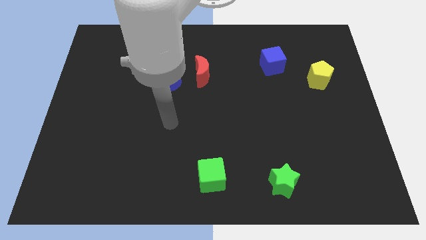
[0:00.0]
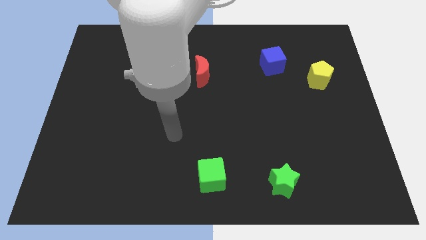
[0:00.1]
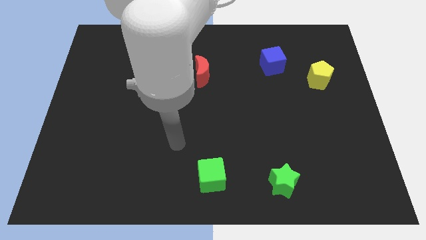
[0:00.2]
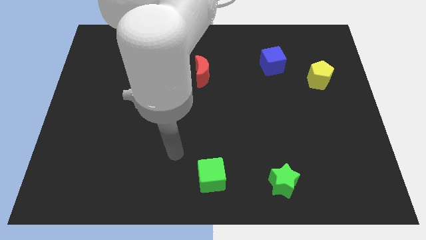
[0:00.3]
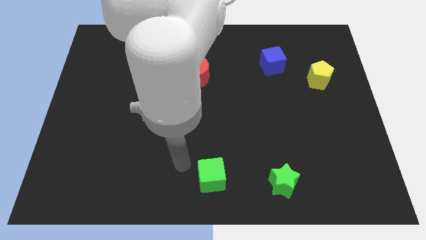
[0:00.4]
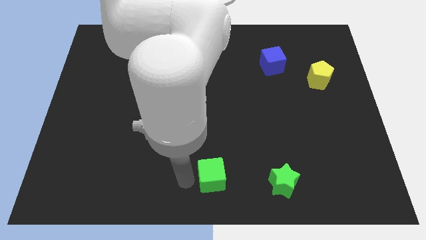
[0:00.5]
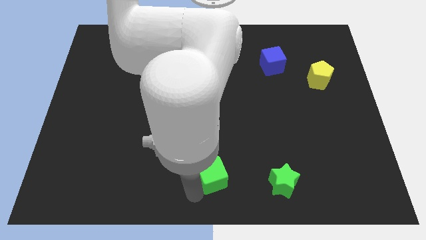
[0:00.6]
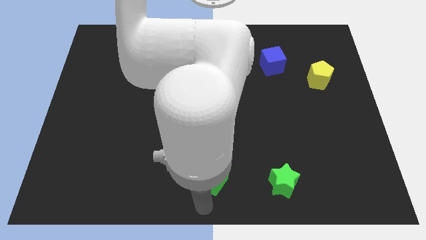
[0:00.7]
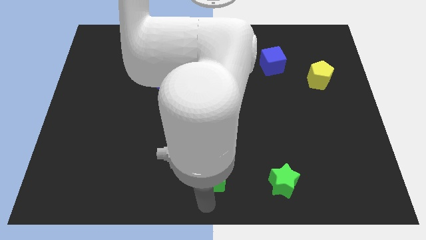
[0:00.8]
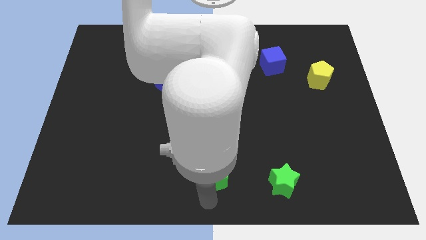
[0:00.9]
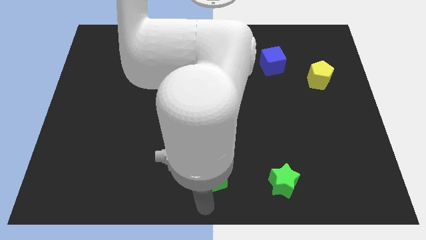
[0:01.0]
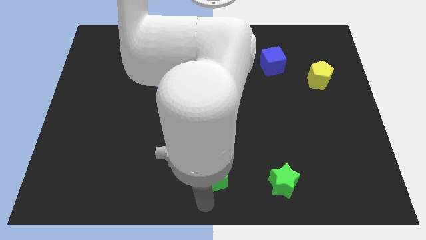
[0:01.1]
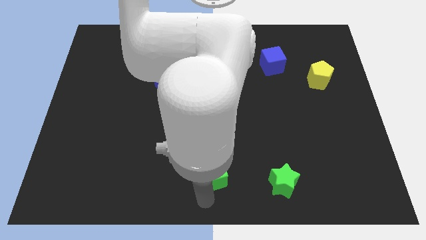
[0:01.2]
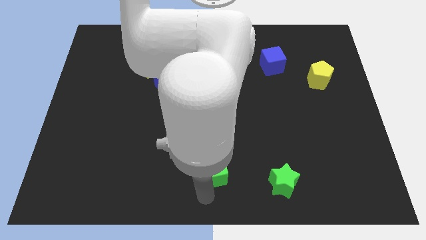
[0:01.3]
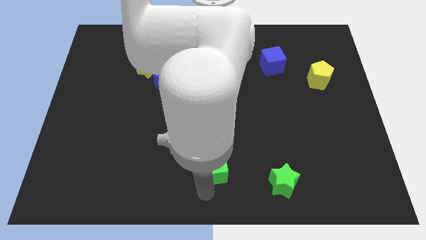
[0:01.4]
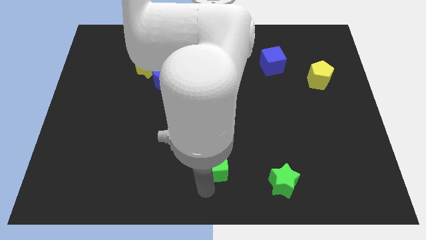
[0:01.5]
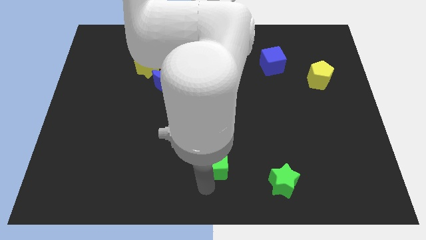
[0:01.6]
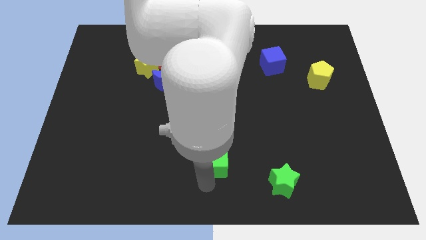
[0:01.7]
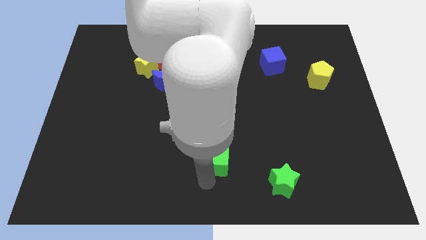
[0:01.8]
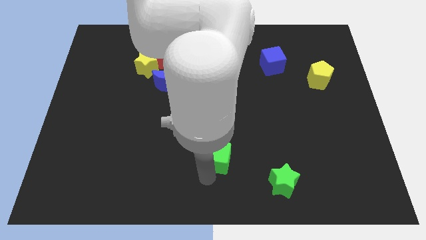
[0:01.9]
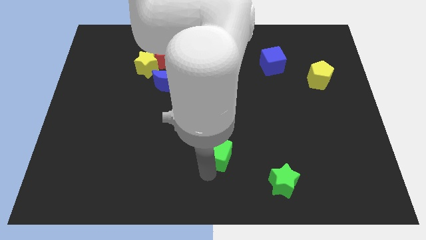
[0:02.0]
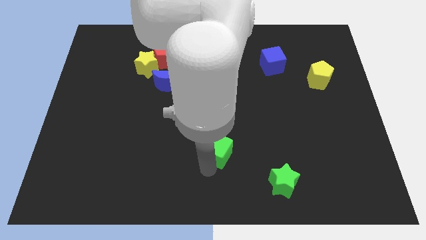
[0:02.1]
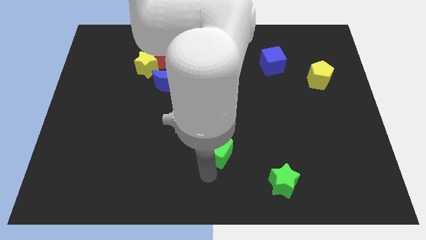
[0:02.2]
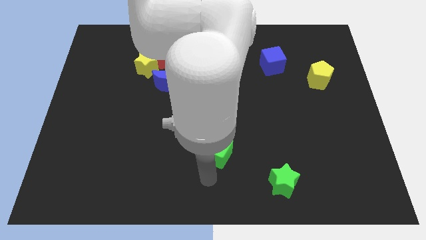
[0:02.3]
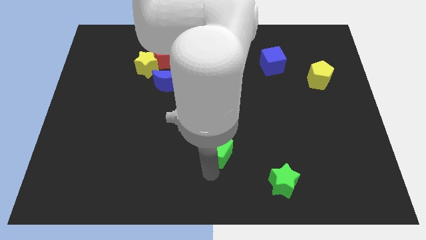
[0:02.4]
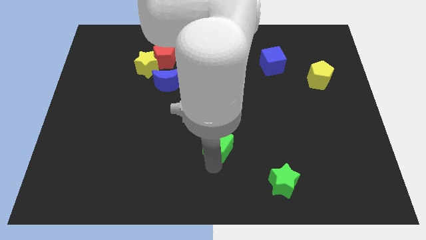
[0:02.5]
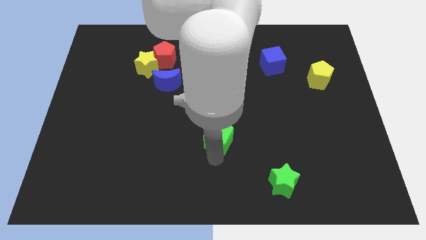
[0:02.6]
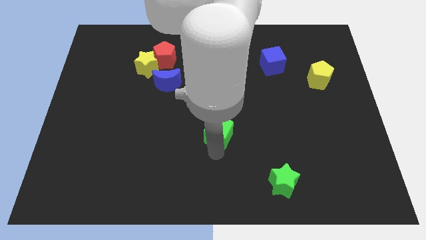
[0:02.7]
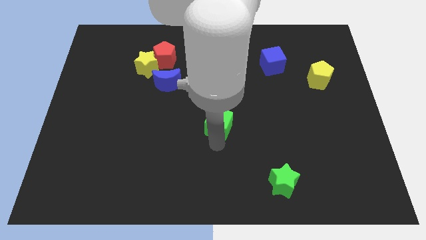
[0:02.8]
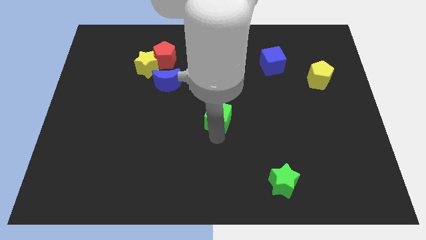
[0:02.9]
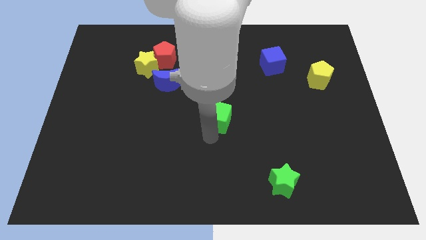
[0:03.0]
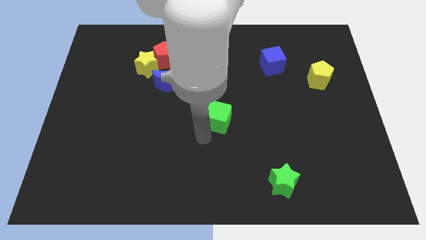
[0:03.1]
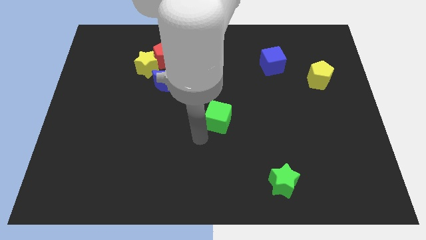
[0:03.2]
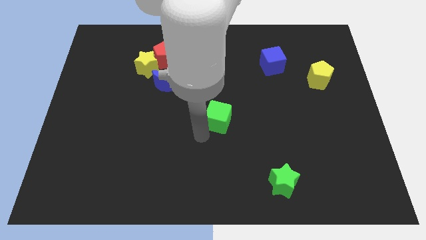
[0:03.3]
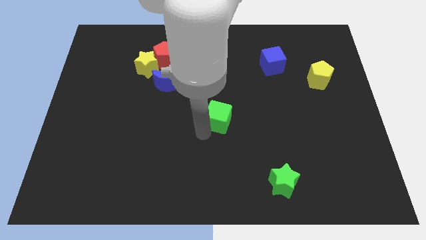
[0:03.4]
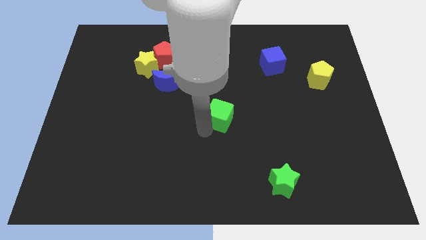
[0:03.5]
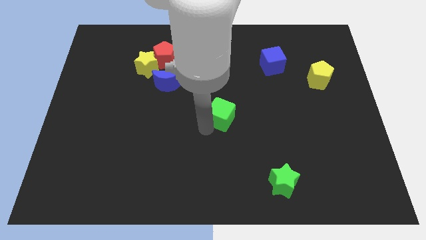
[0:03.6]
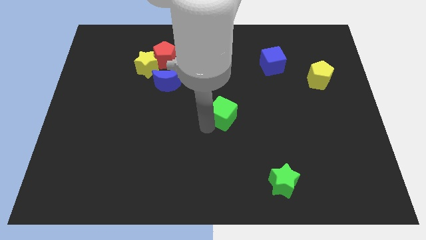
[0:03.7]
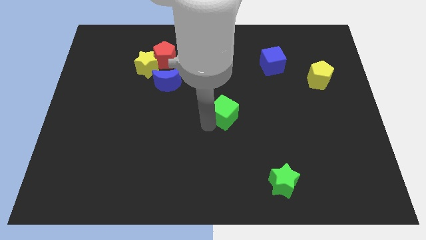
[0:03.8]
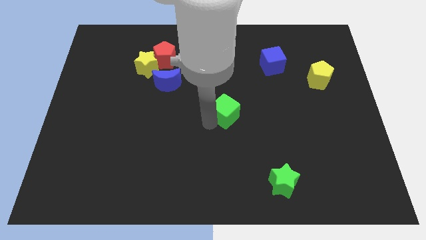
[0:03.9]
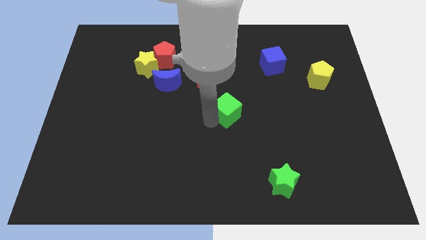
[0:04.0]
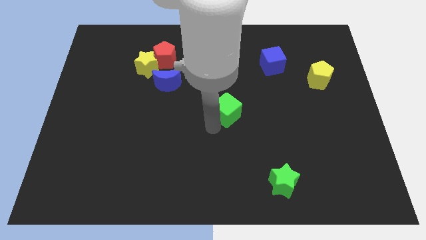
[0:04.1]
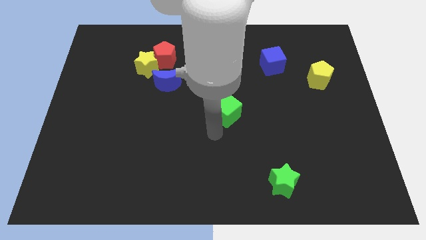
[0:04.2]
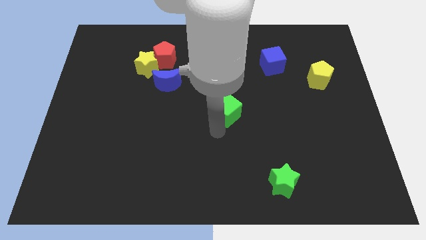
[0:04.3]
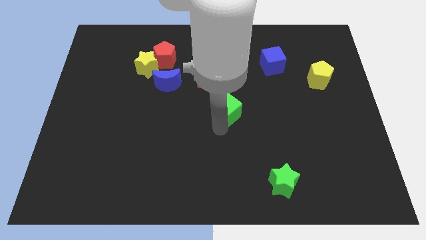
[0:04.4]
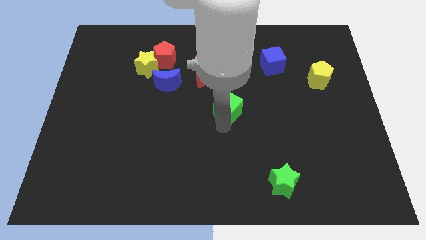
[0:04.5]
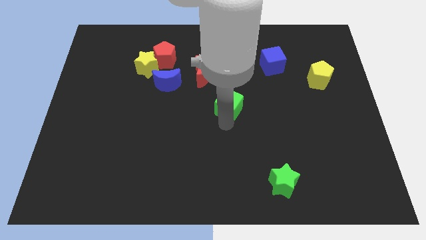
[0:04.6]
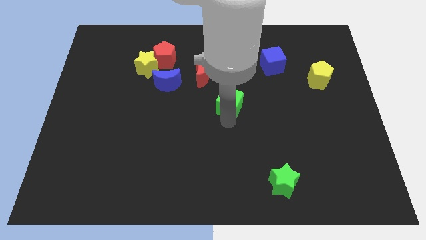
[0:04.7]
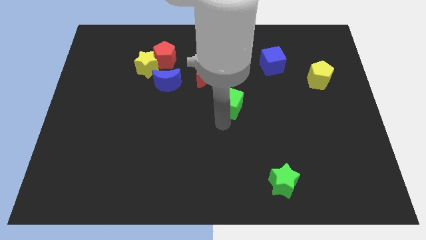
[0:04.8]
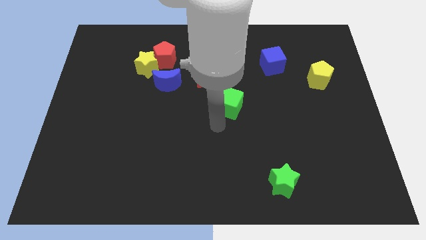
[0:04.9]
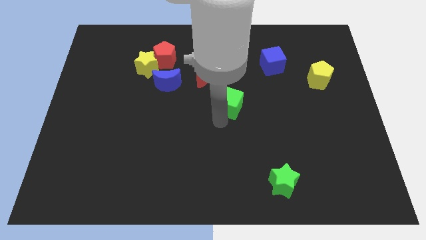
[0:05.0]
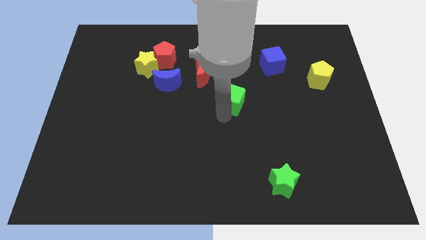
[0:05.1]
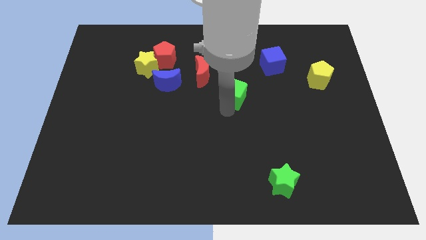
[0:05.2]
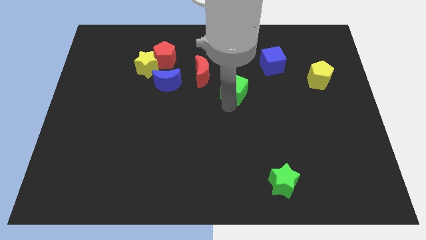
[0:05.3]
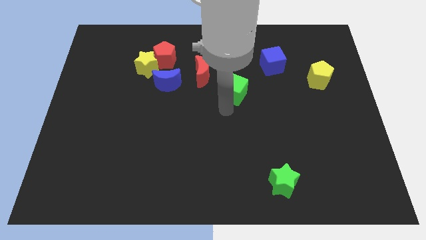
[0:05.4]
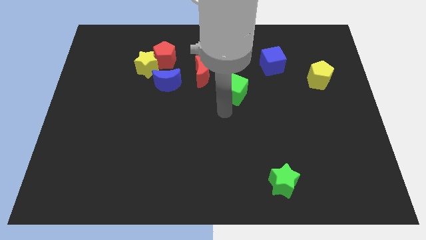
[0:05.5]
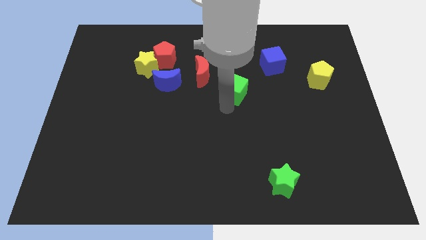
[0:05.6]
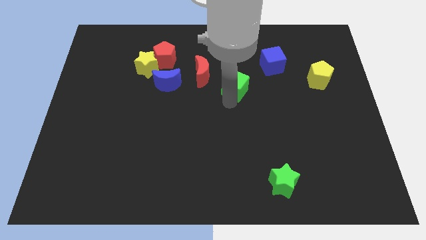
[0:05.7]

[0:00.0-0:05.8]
move the green cube to the right of the red moon

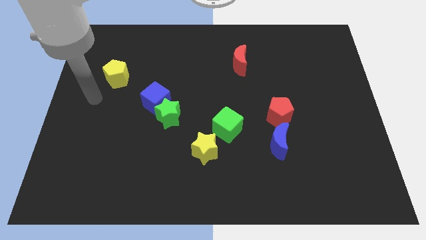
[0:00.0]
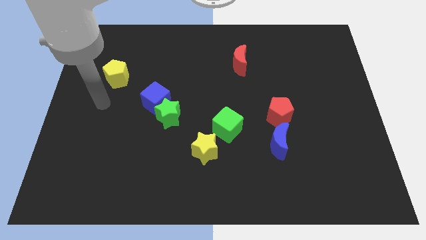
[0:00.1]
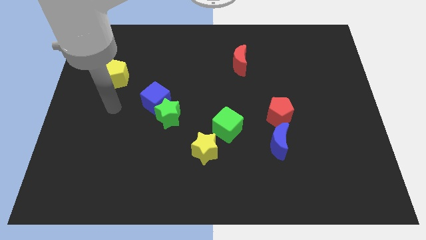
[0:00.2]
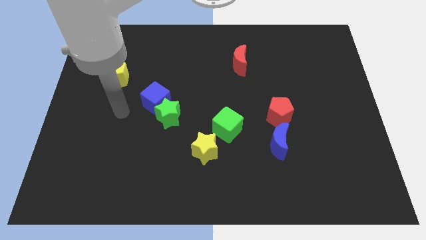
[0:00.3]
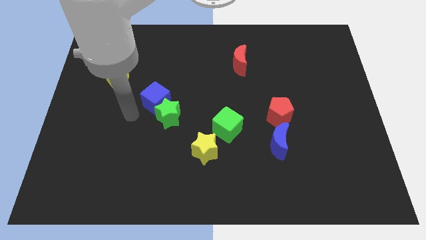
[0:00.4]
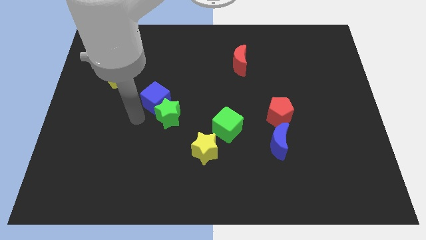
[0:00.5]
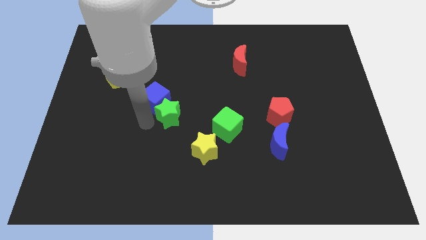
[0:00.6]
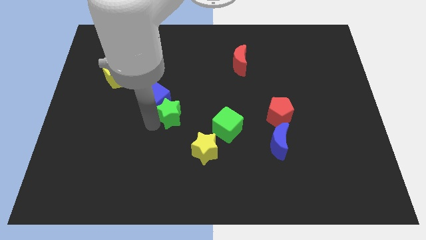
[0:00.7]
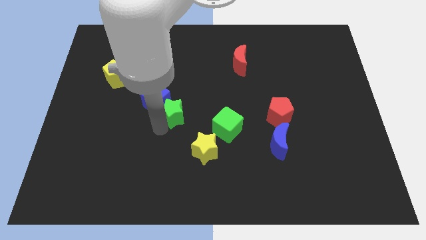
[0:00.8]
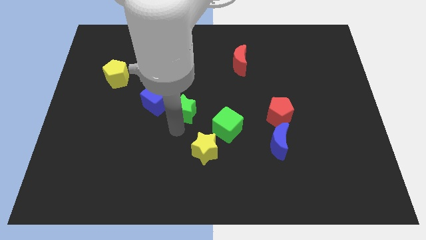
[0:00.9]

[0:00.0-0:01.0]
slide the green cube to the bottom right of the green star
